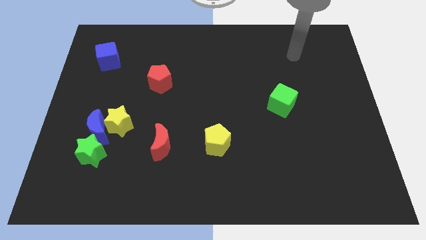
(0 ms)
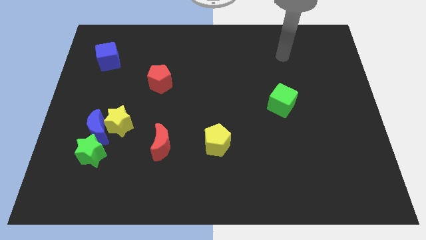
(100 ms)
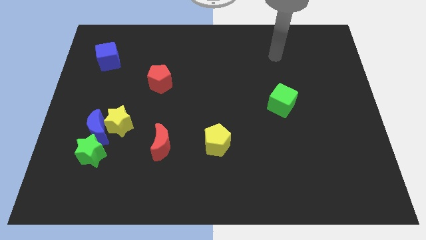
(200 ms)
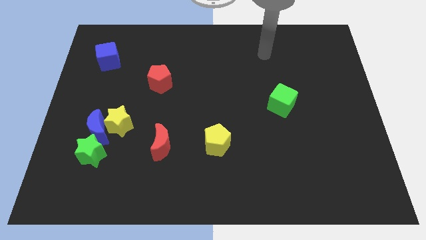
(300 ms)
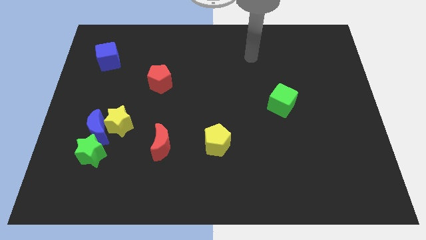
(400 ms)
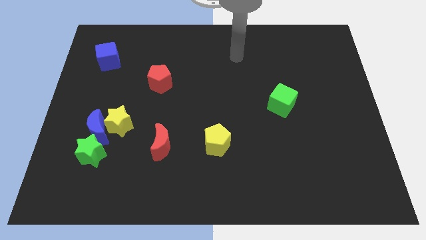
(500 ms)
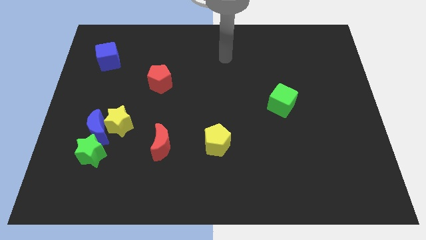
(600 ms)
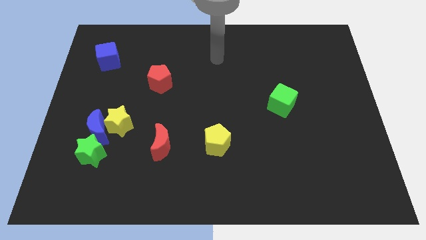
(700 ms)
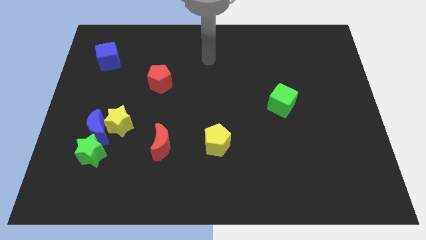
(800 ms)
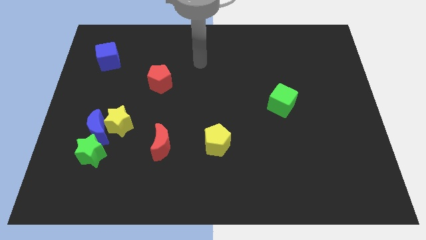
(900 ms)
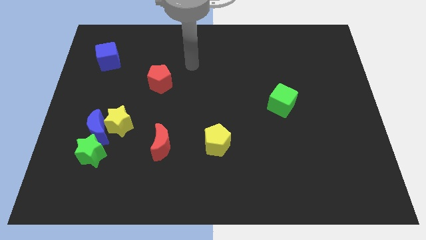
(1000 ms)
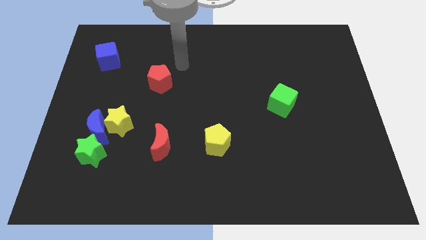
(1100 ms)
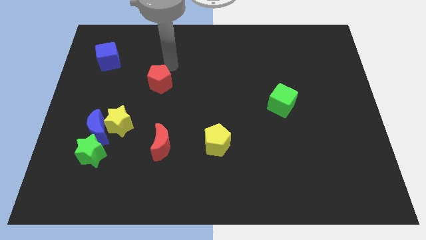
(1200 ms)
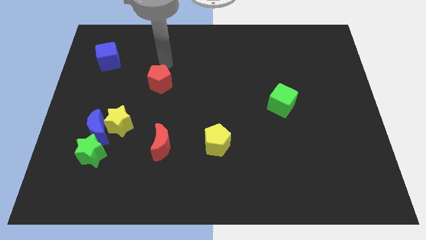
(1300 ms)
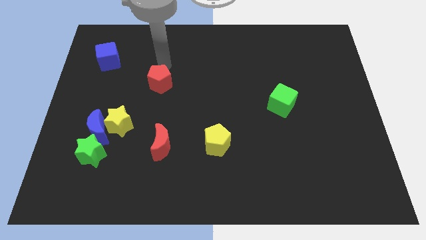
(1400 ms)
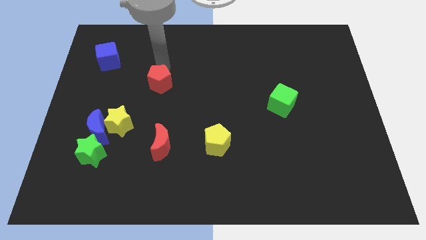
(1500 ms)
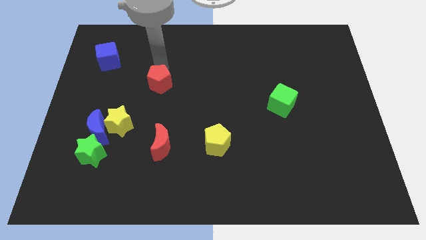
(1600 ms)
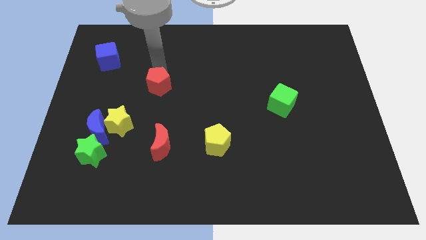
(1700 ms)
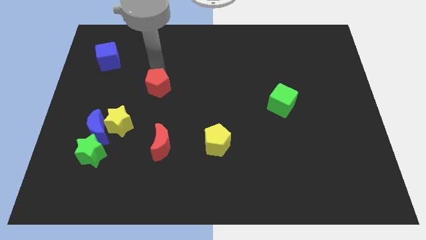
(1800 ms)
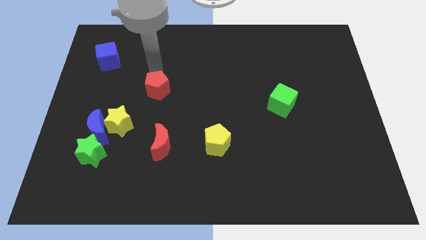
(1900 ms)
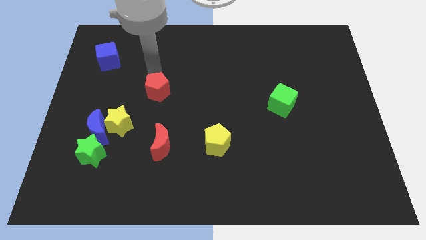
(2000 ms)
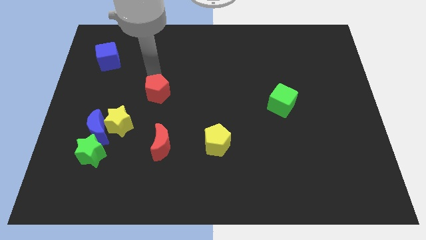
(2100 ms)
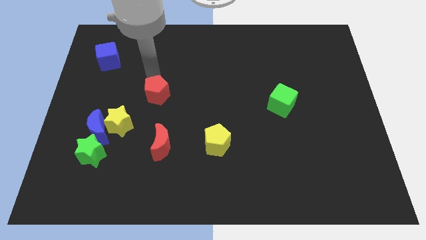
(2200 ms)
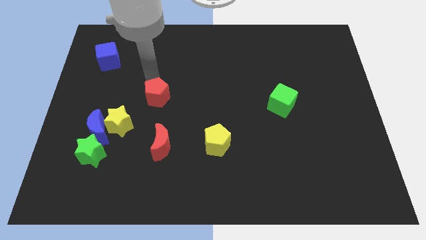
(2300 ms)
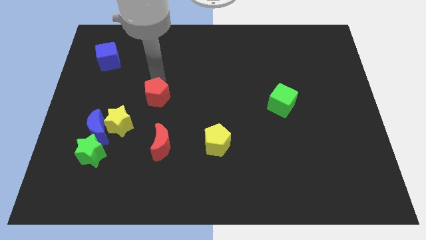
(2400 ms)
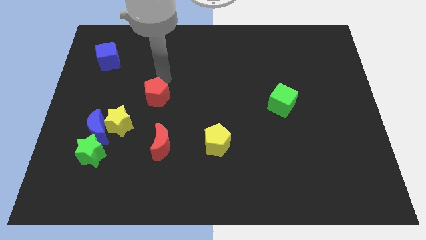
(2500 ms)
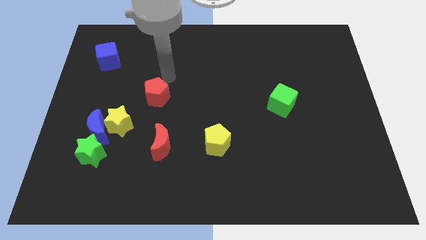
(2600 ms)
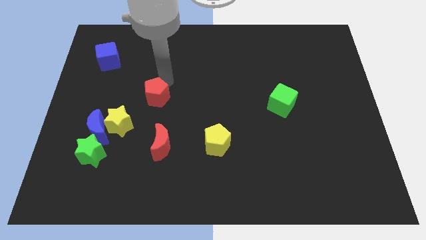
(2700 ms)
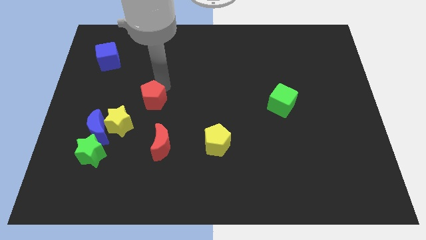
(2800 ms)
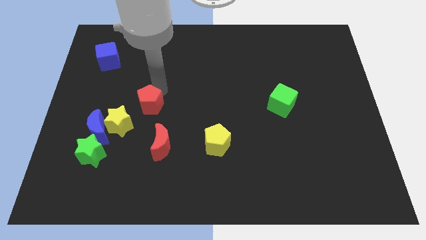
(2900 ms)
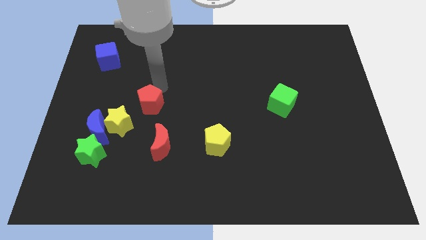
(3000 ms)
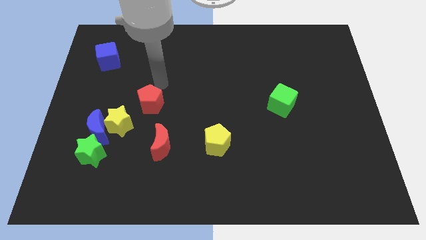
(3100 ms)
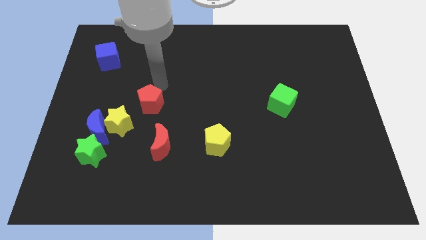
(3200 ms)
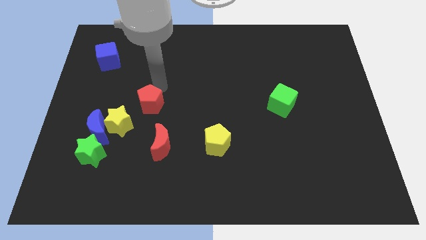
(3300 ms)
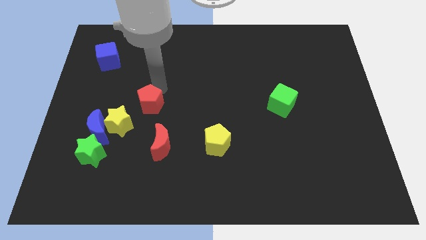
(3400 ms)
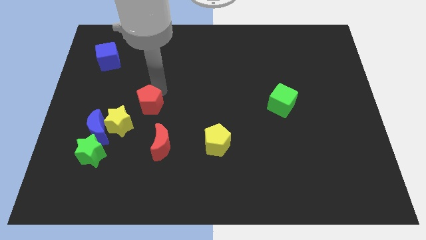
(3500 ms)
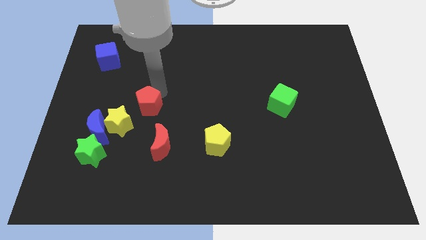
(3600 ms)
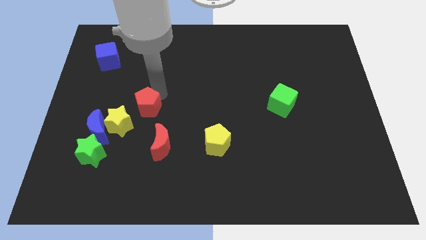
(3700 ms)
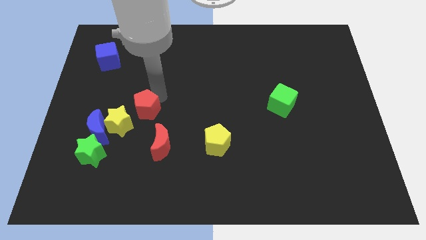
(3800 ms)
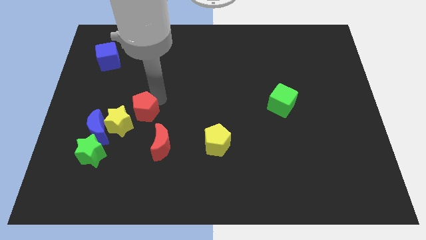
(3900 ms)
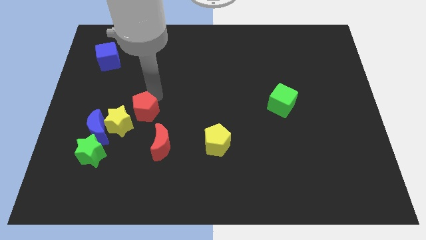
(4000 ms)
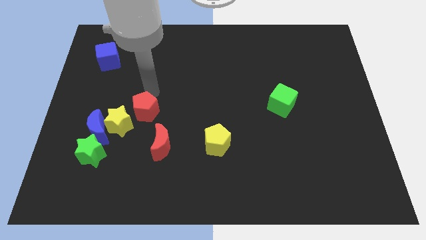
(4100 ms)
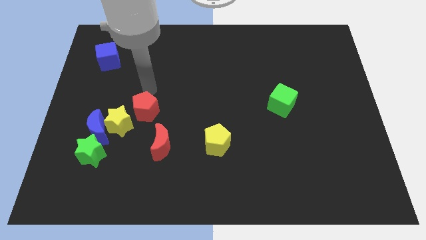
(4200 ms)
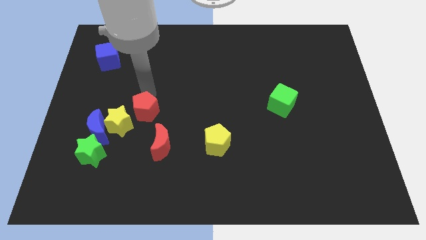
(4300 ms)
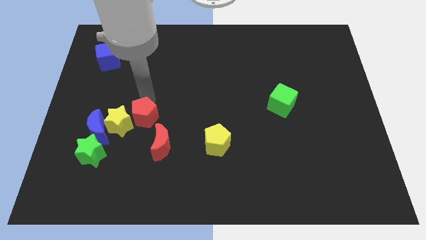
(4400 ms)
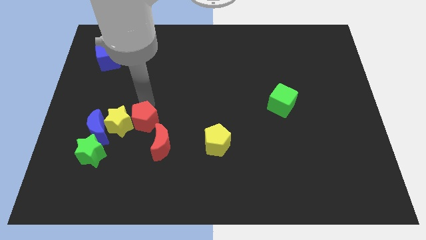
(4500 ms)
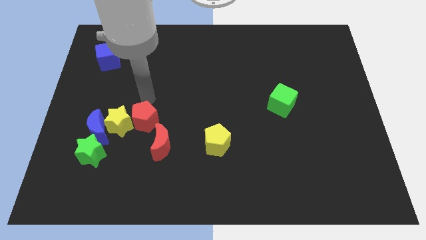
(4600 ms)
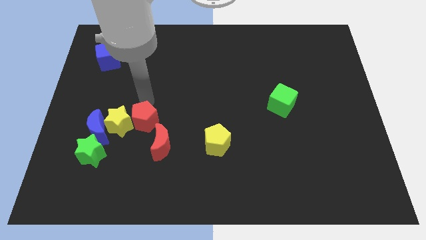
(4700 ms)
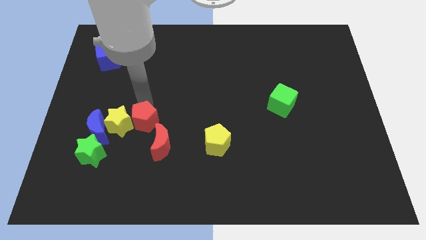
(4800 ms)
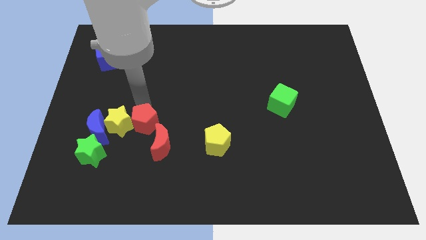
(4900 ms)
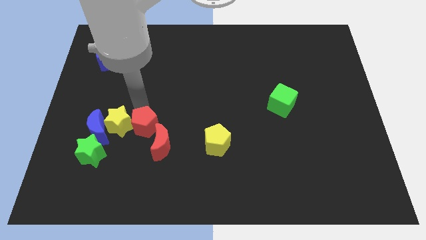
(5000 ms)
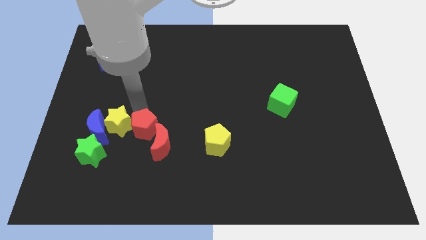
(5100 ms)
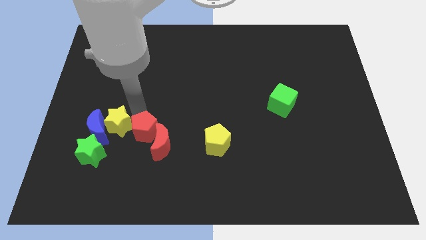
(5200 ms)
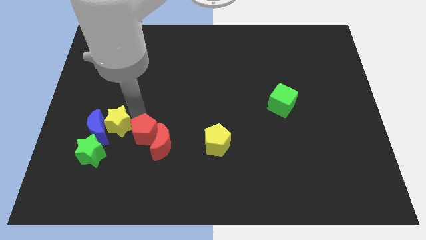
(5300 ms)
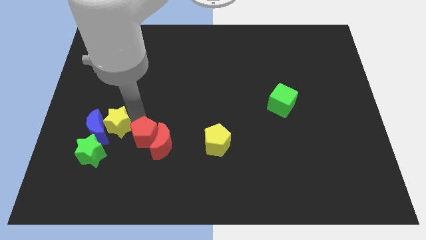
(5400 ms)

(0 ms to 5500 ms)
move the red pentagon to the right side of the green star

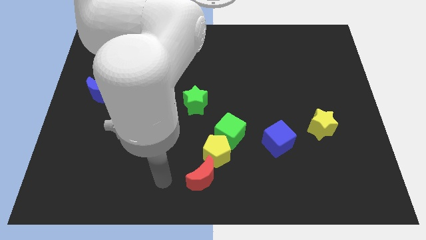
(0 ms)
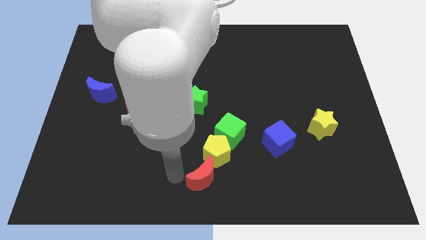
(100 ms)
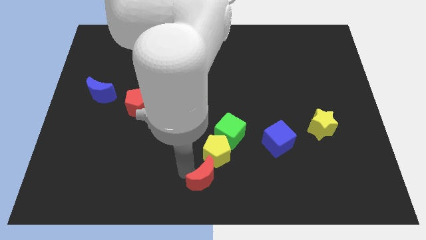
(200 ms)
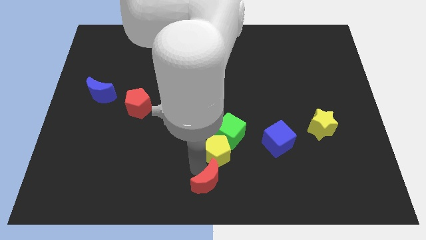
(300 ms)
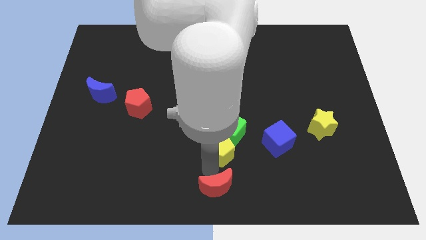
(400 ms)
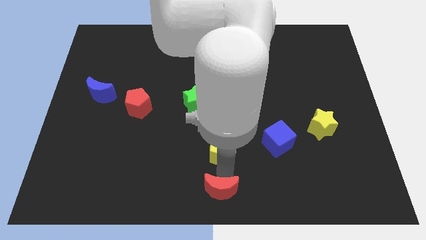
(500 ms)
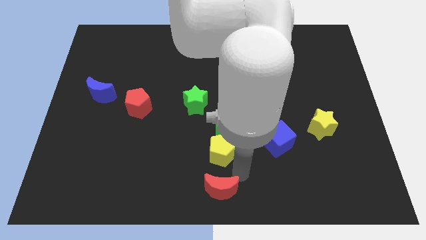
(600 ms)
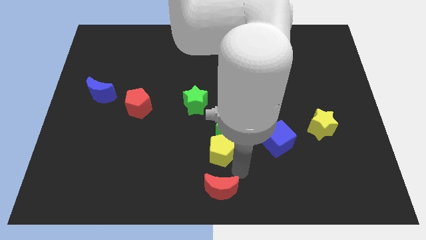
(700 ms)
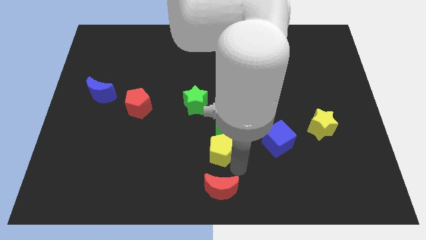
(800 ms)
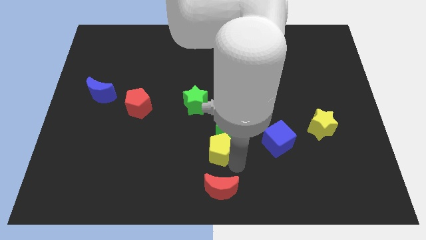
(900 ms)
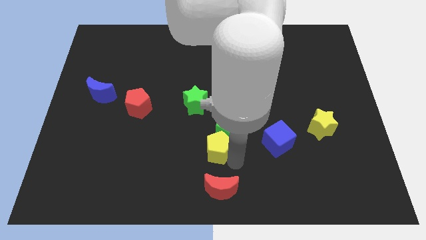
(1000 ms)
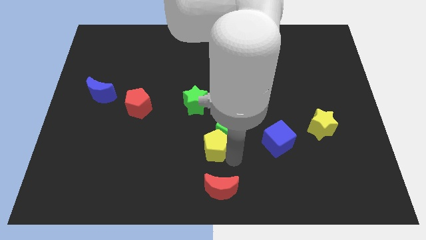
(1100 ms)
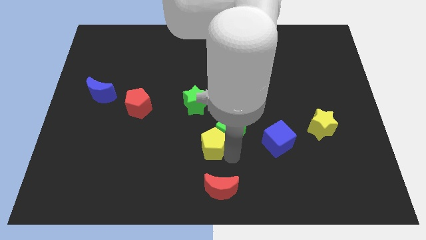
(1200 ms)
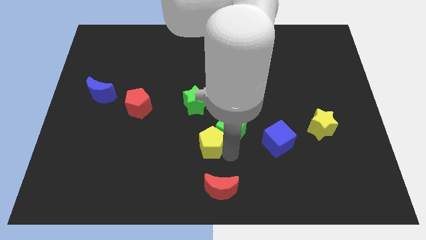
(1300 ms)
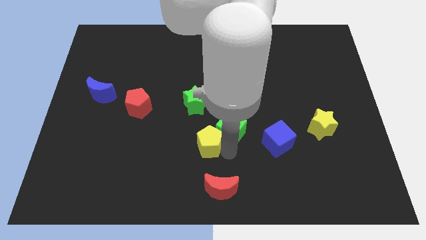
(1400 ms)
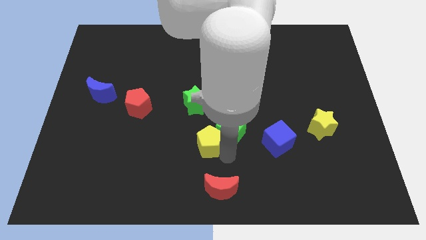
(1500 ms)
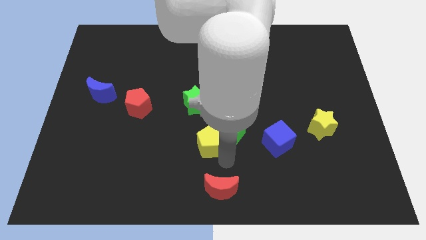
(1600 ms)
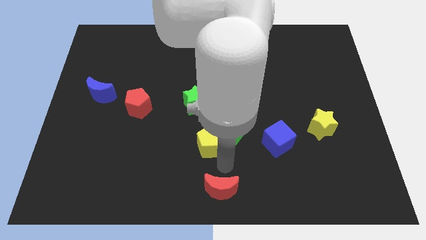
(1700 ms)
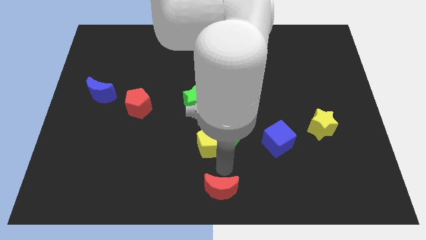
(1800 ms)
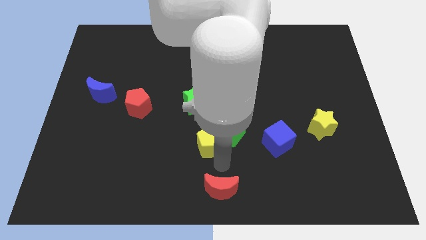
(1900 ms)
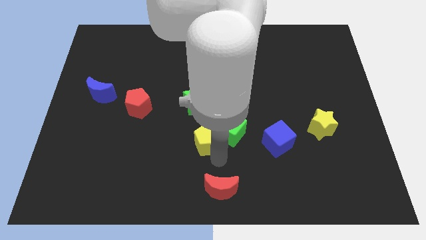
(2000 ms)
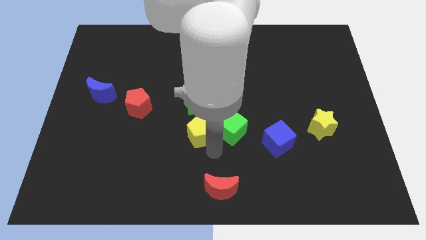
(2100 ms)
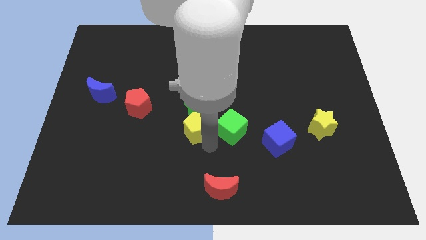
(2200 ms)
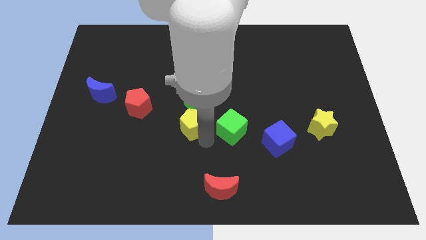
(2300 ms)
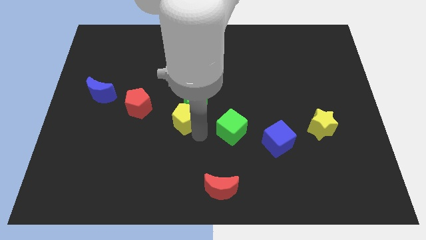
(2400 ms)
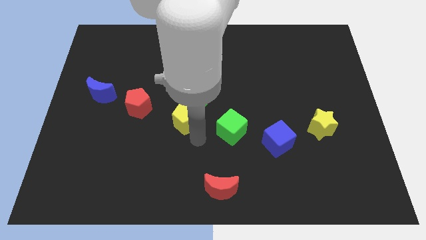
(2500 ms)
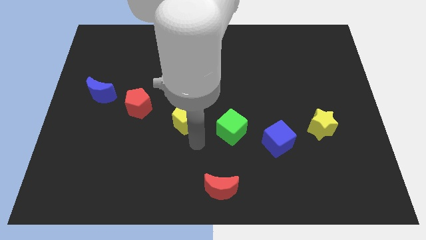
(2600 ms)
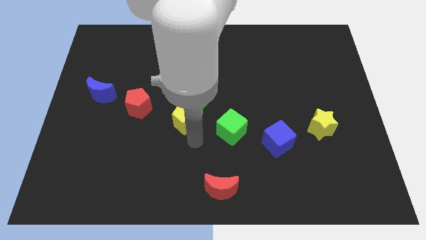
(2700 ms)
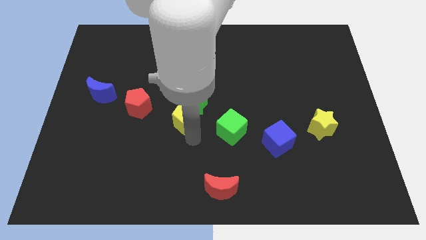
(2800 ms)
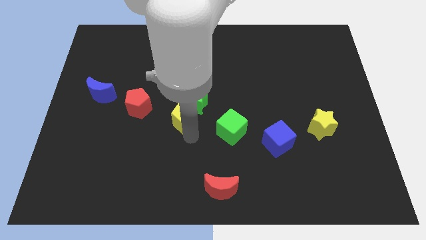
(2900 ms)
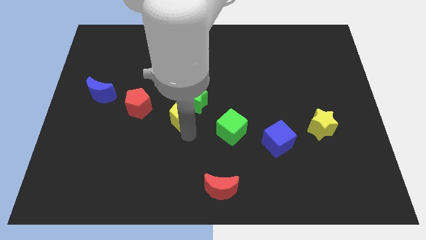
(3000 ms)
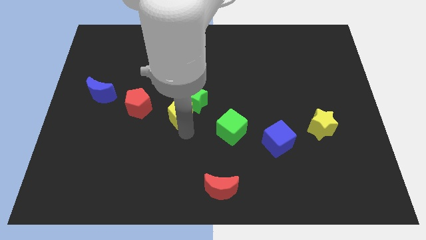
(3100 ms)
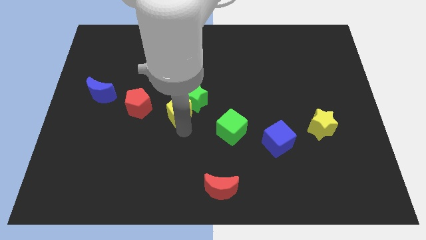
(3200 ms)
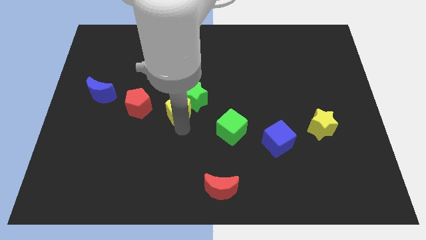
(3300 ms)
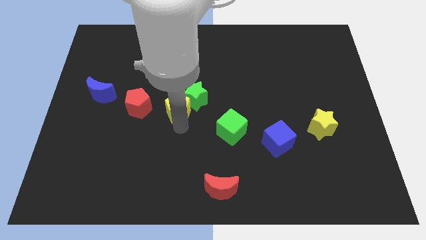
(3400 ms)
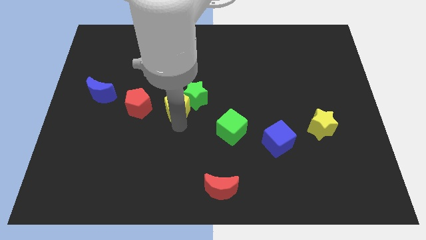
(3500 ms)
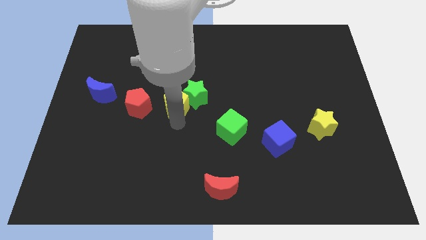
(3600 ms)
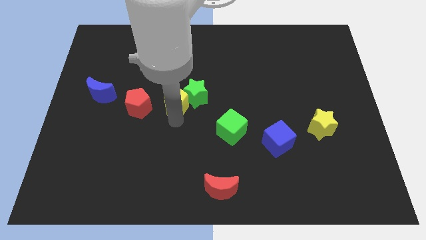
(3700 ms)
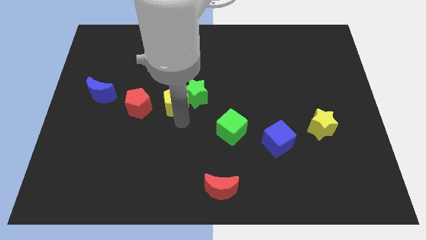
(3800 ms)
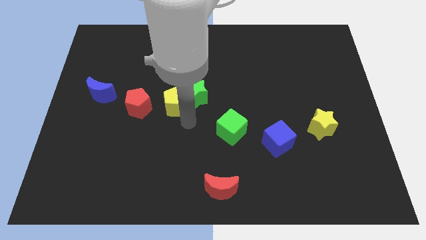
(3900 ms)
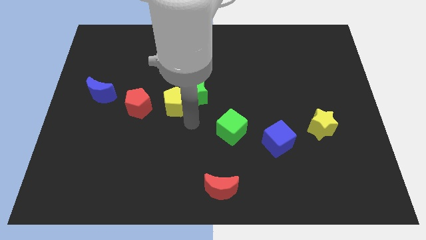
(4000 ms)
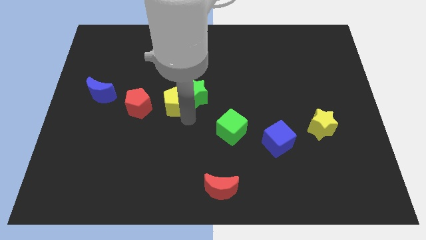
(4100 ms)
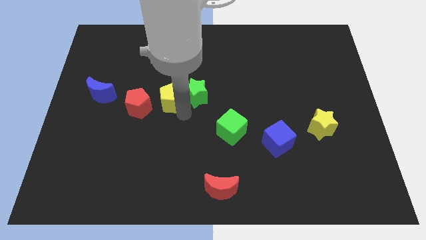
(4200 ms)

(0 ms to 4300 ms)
move the yellow pentagon diagonally up and to the right of the red pentagon
